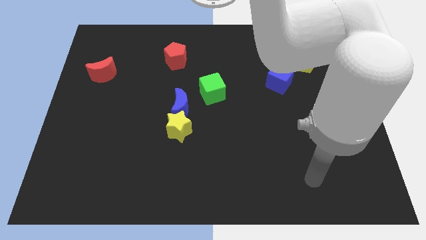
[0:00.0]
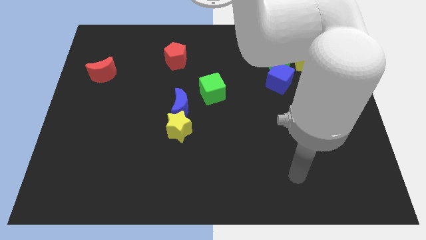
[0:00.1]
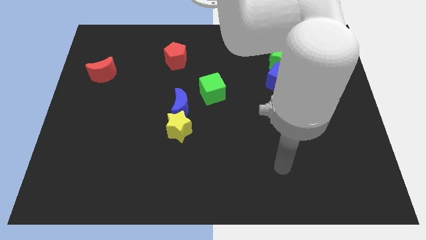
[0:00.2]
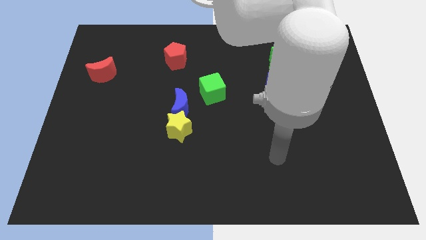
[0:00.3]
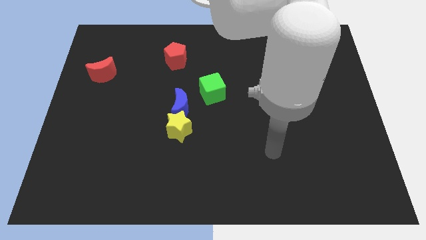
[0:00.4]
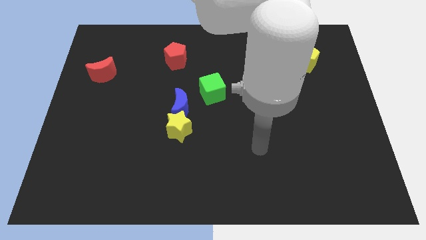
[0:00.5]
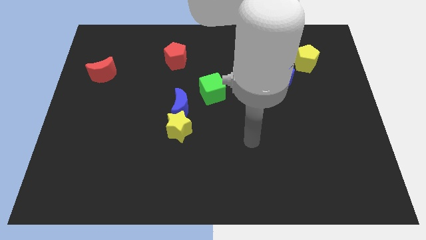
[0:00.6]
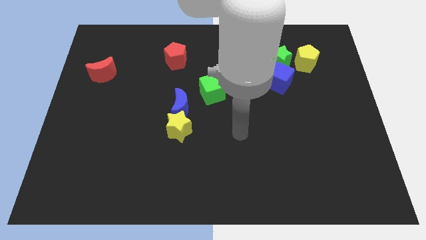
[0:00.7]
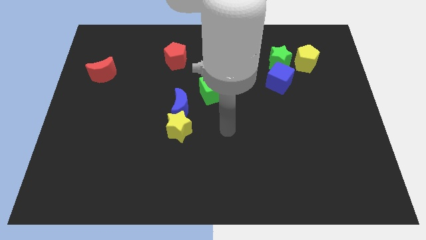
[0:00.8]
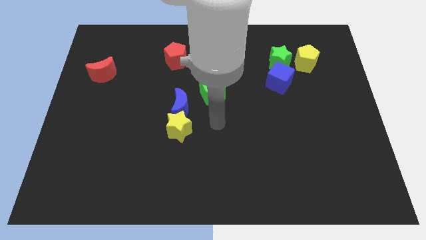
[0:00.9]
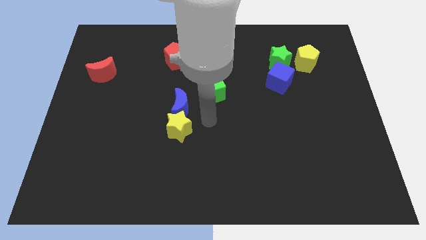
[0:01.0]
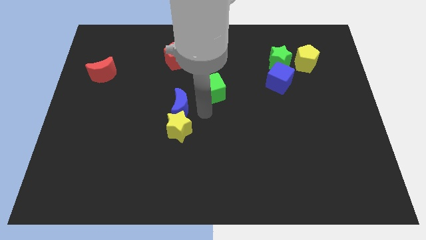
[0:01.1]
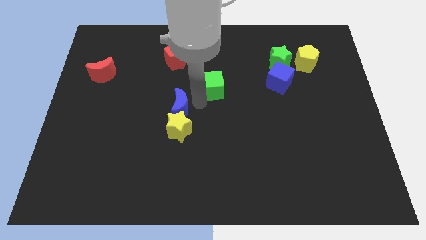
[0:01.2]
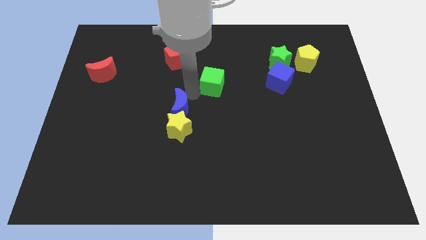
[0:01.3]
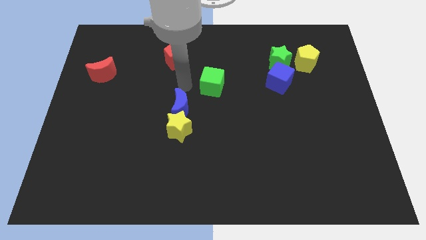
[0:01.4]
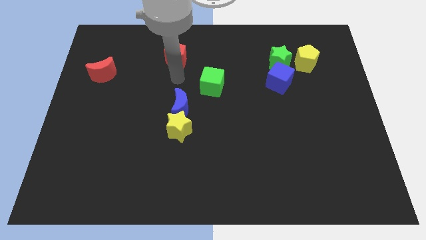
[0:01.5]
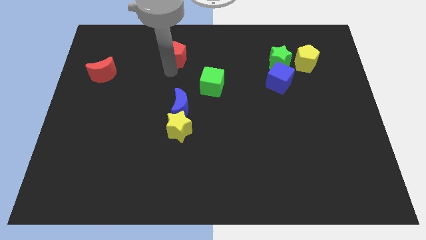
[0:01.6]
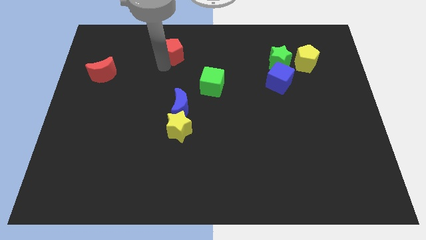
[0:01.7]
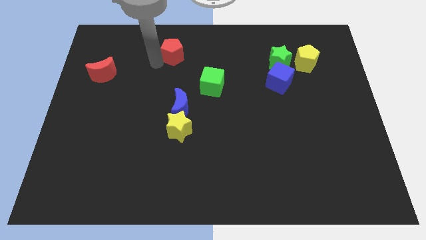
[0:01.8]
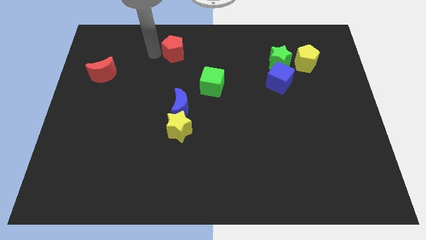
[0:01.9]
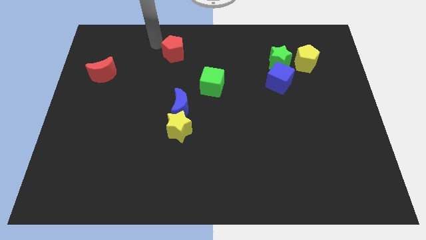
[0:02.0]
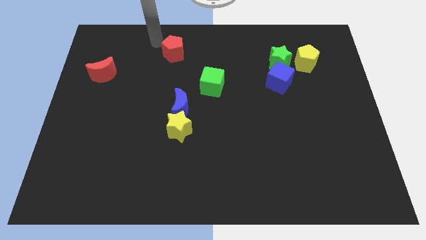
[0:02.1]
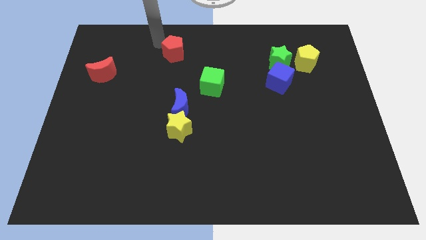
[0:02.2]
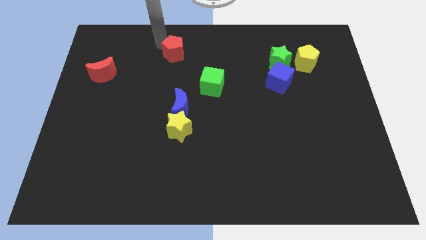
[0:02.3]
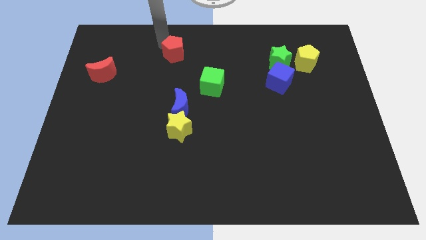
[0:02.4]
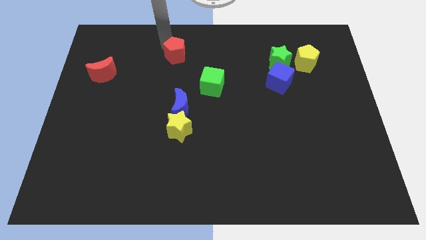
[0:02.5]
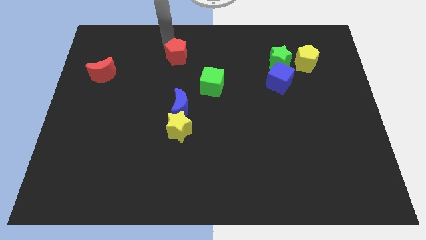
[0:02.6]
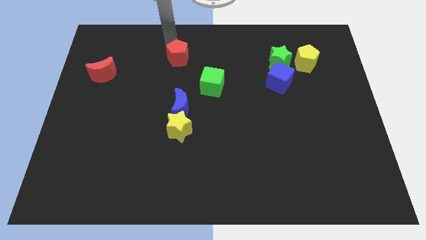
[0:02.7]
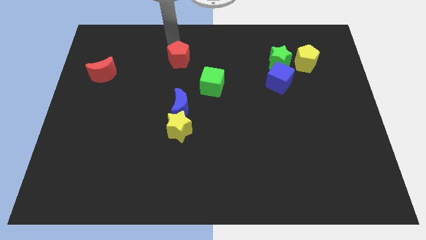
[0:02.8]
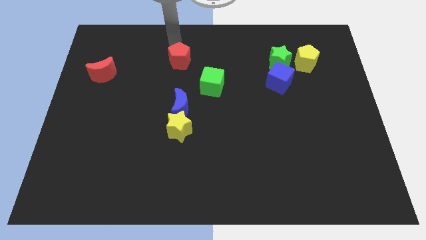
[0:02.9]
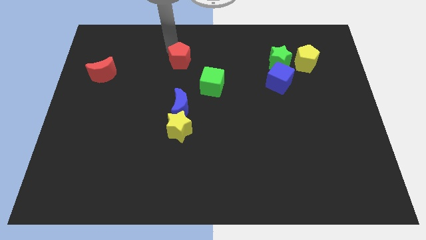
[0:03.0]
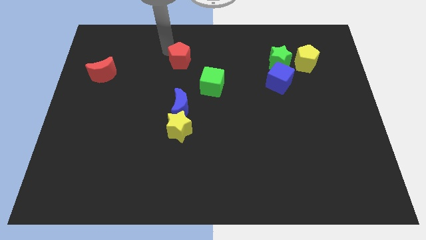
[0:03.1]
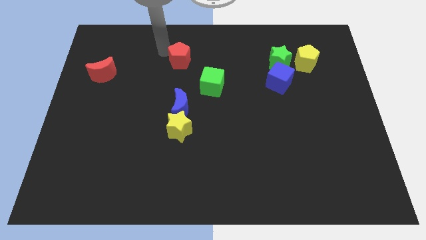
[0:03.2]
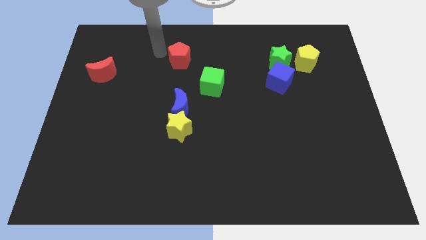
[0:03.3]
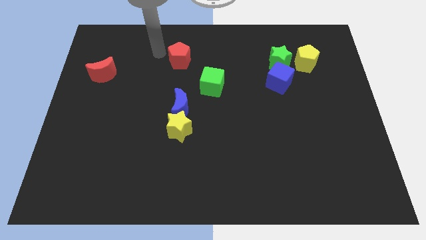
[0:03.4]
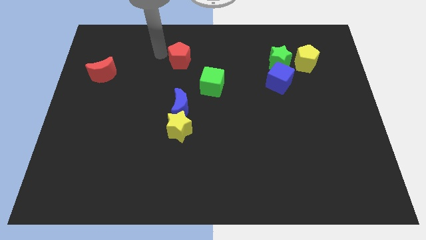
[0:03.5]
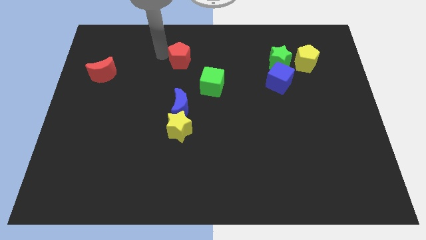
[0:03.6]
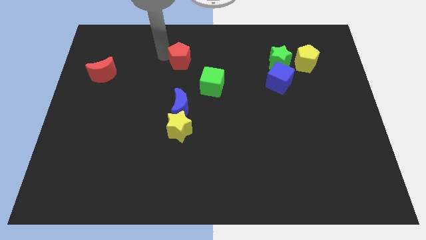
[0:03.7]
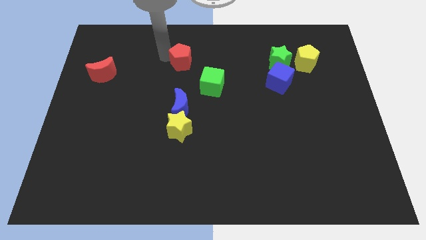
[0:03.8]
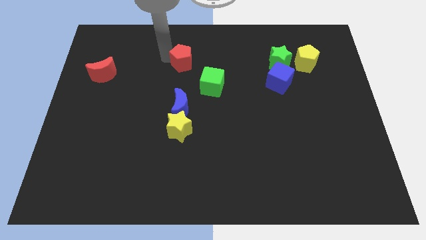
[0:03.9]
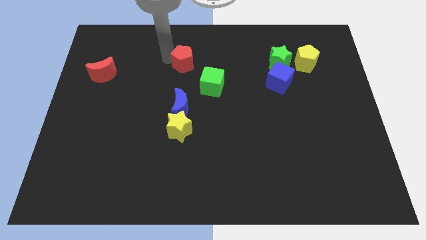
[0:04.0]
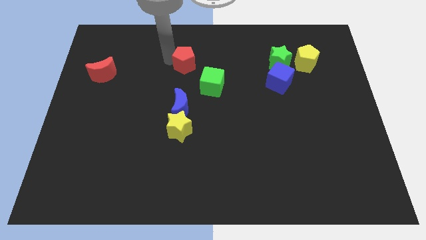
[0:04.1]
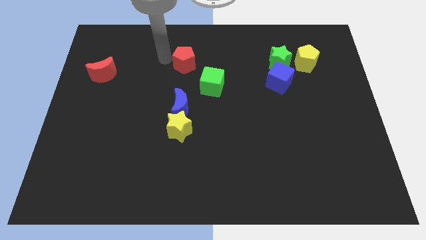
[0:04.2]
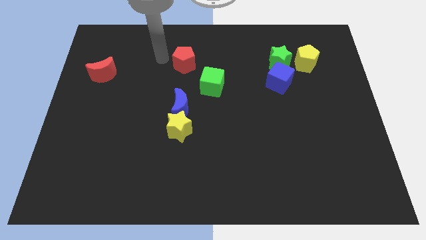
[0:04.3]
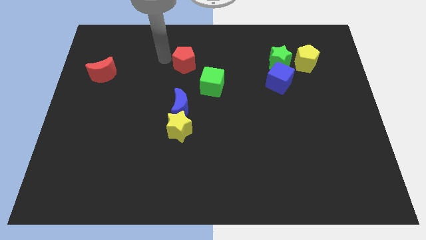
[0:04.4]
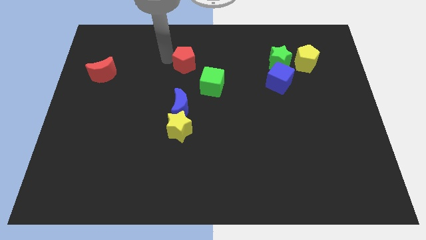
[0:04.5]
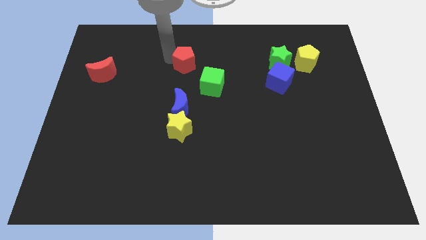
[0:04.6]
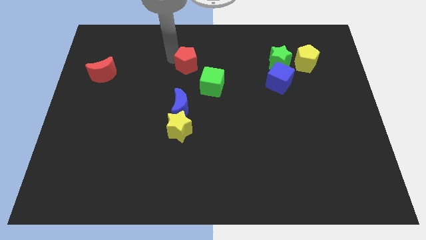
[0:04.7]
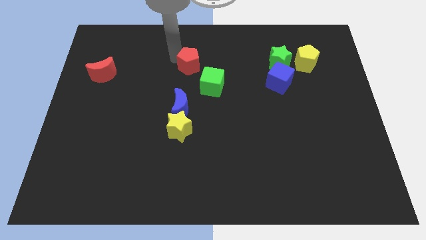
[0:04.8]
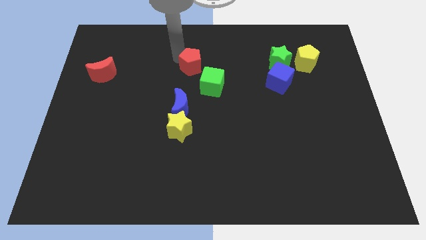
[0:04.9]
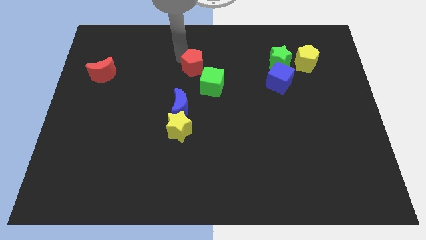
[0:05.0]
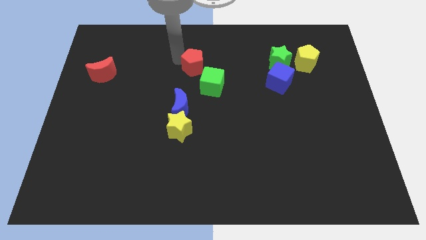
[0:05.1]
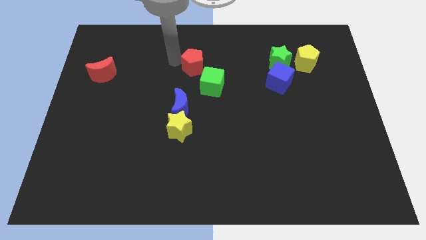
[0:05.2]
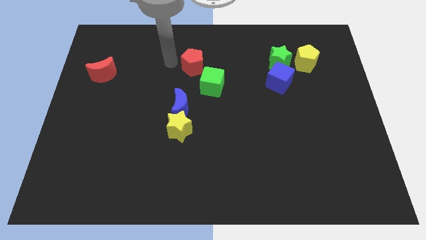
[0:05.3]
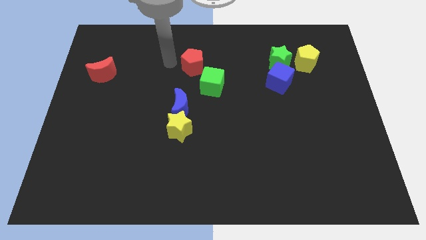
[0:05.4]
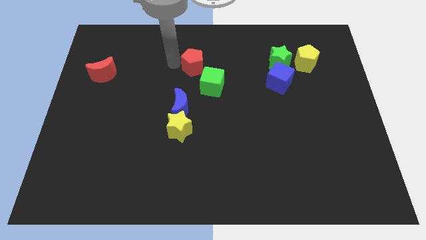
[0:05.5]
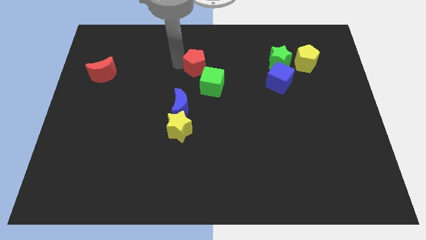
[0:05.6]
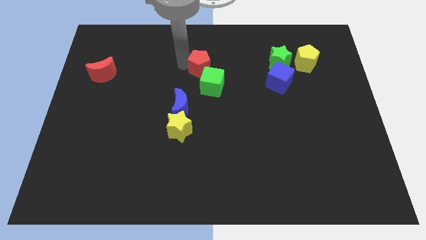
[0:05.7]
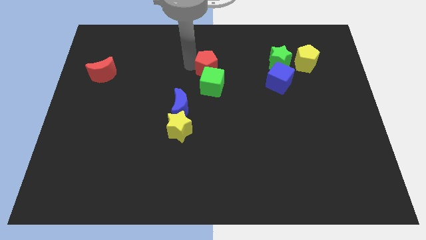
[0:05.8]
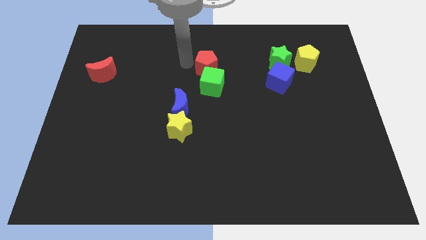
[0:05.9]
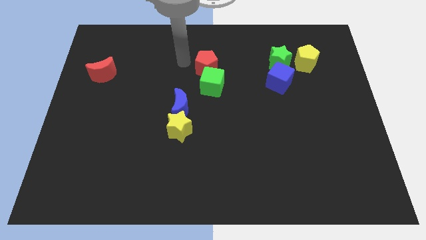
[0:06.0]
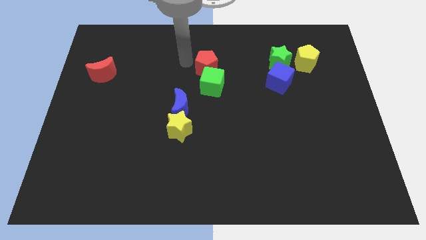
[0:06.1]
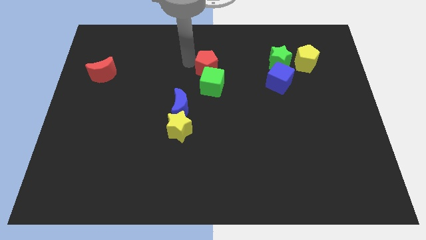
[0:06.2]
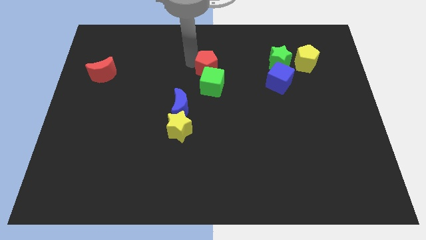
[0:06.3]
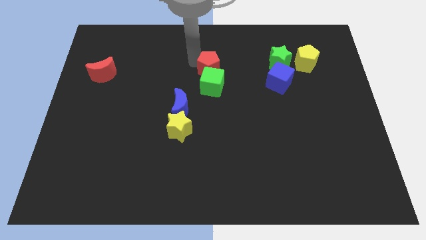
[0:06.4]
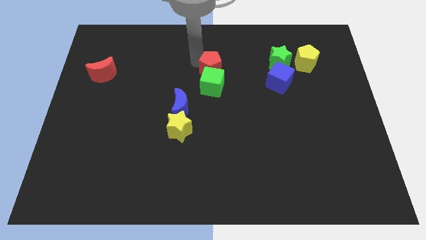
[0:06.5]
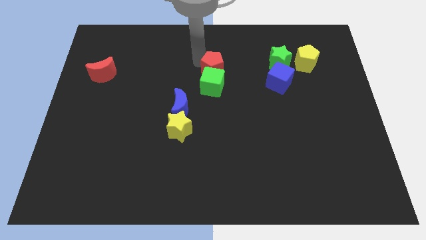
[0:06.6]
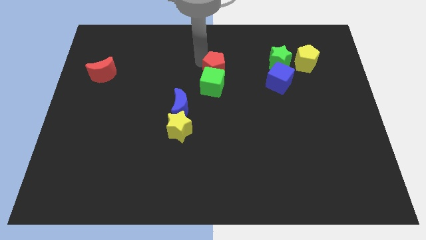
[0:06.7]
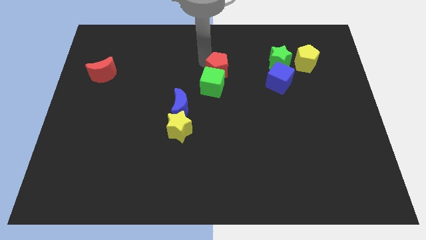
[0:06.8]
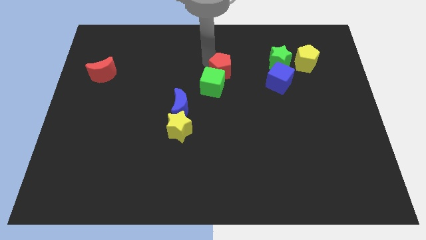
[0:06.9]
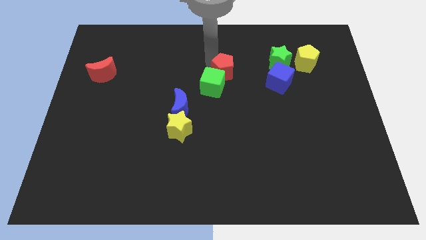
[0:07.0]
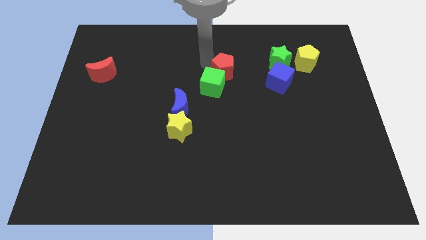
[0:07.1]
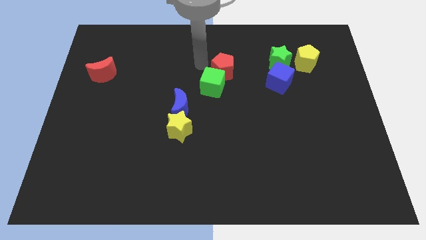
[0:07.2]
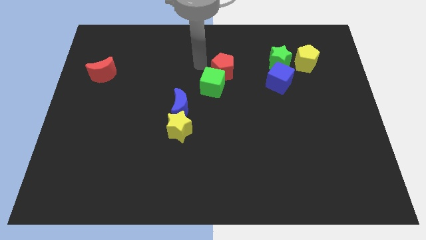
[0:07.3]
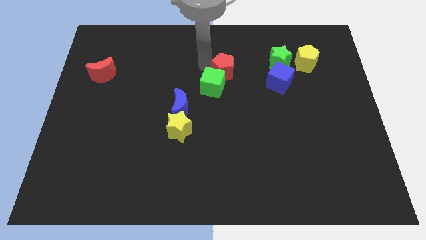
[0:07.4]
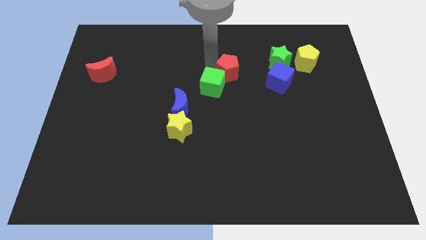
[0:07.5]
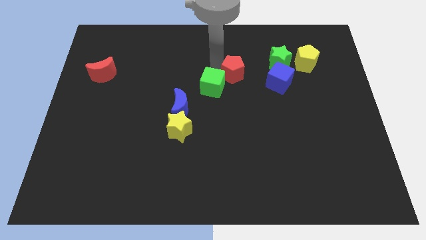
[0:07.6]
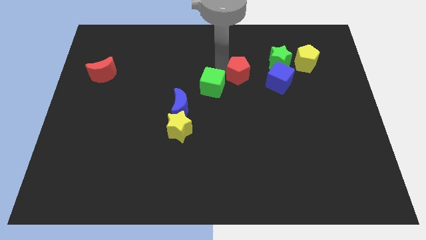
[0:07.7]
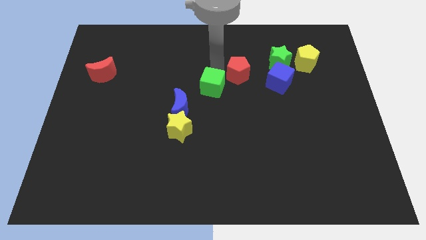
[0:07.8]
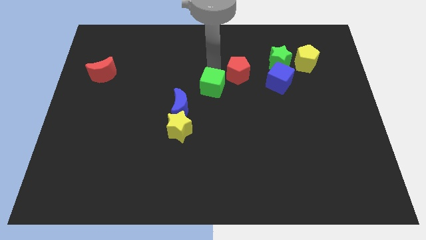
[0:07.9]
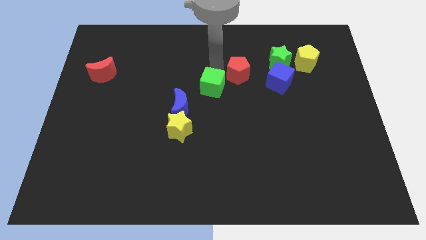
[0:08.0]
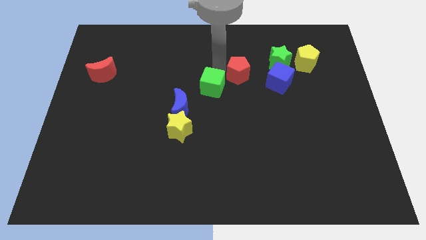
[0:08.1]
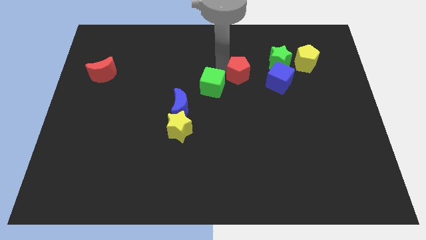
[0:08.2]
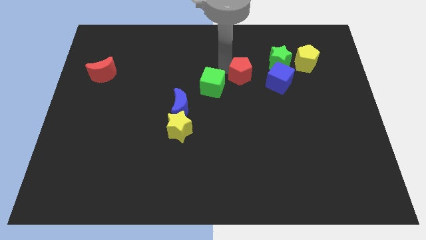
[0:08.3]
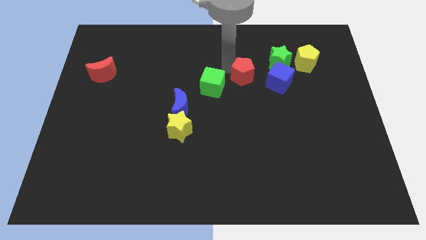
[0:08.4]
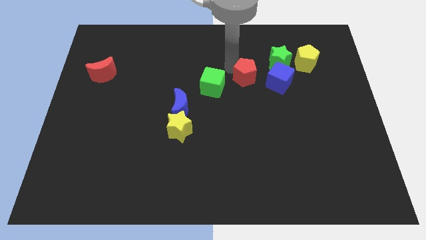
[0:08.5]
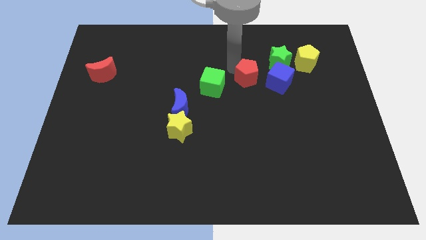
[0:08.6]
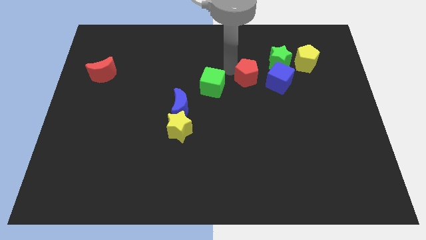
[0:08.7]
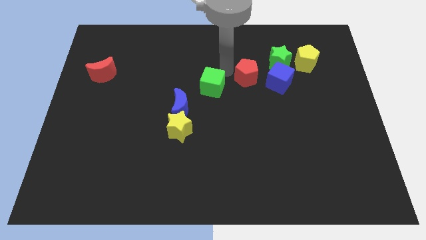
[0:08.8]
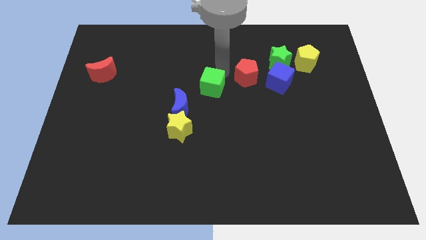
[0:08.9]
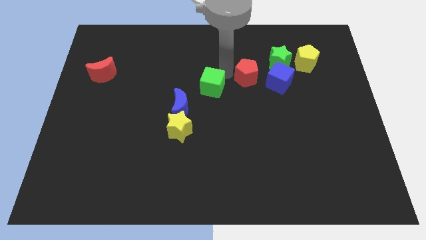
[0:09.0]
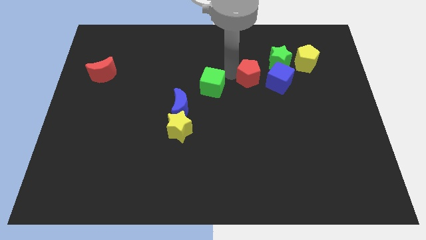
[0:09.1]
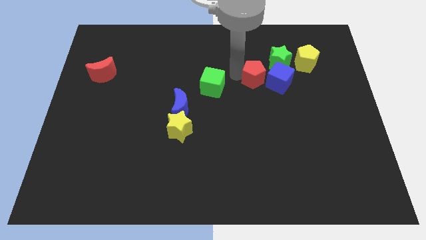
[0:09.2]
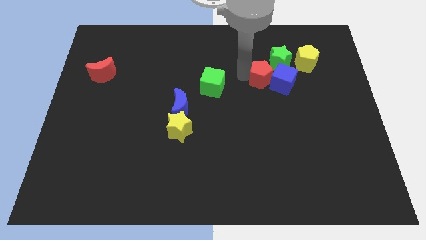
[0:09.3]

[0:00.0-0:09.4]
move the red pentagon to the blue cube
